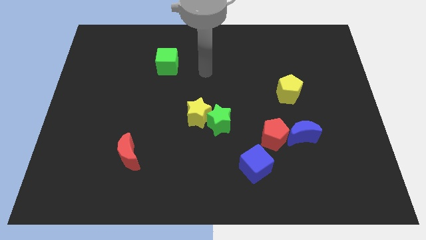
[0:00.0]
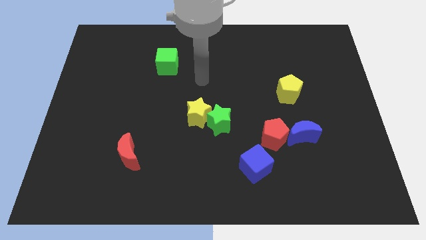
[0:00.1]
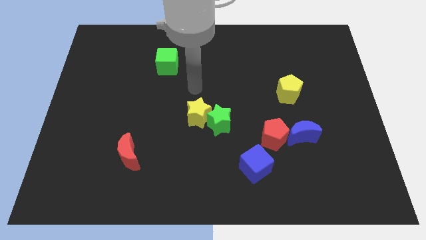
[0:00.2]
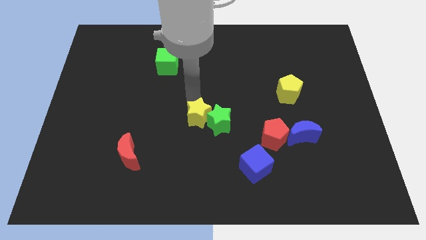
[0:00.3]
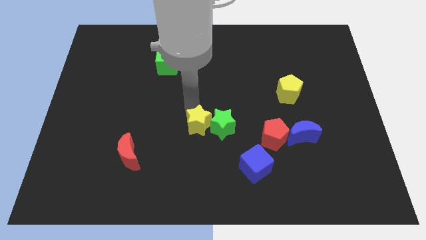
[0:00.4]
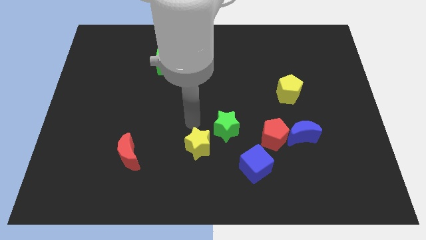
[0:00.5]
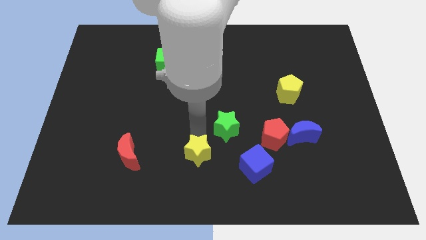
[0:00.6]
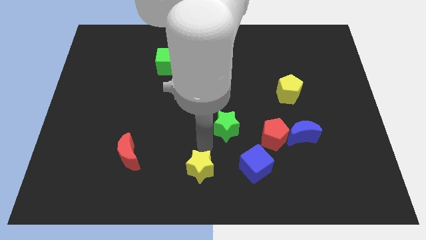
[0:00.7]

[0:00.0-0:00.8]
move the green star away from the yellow star

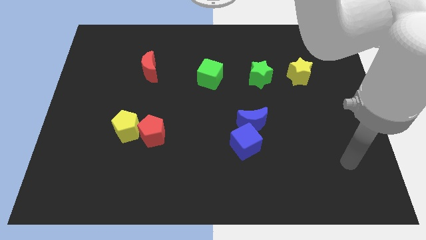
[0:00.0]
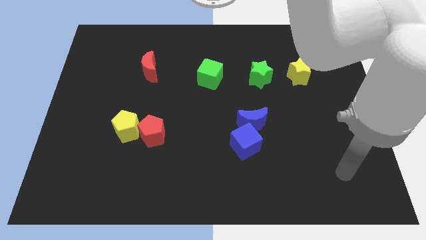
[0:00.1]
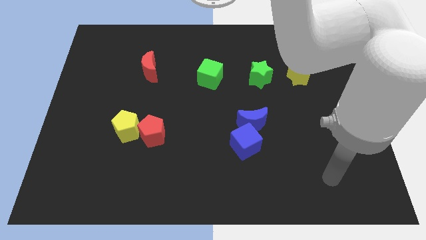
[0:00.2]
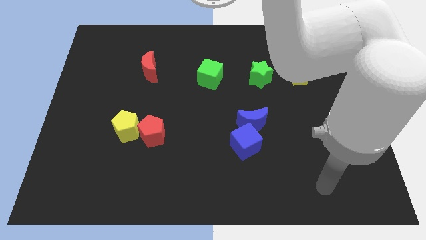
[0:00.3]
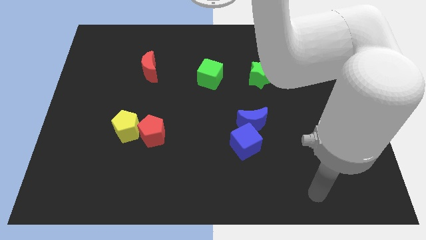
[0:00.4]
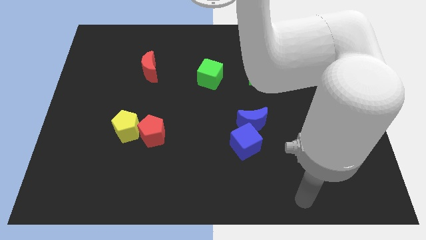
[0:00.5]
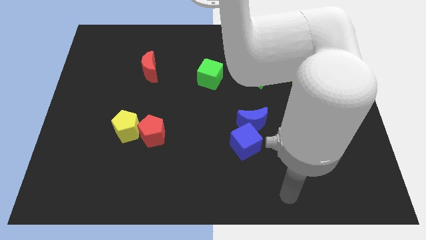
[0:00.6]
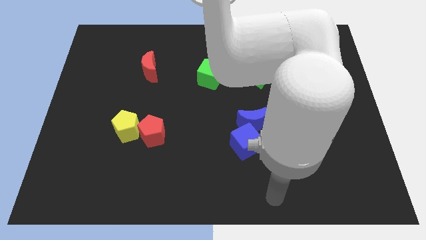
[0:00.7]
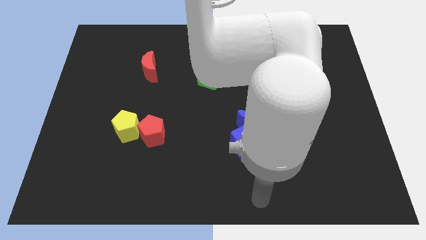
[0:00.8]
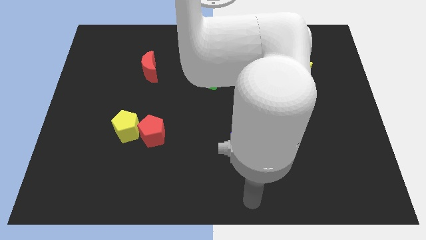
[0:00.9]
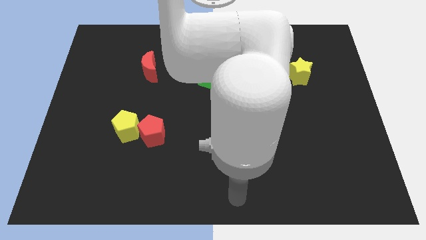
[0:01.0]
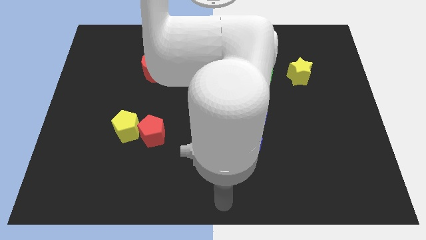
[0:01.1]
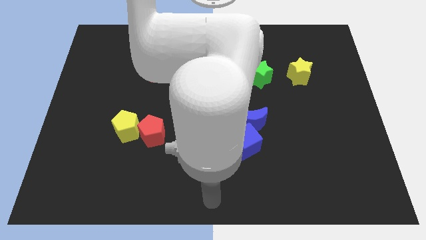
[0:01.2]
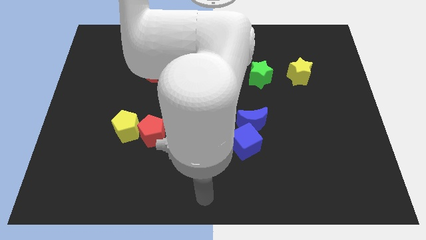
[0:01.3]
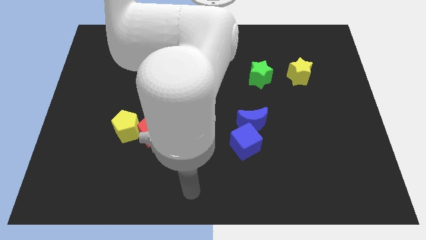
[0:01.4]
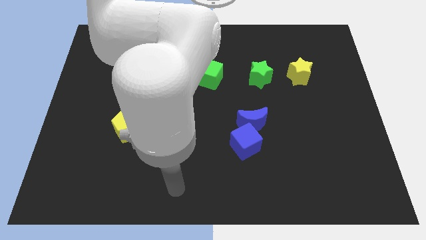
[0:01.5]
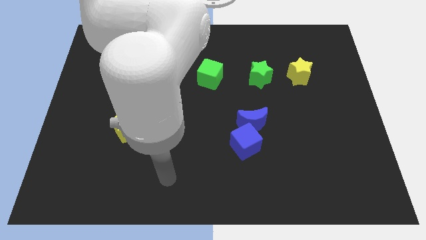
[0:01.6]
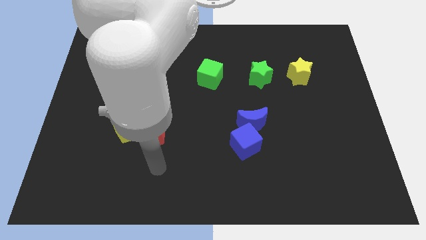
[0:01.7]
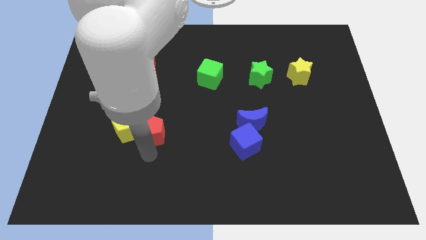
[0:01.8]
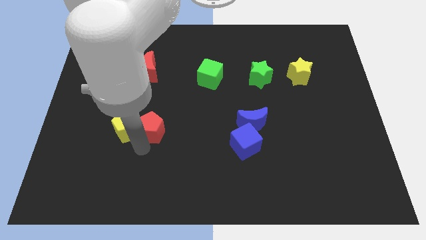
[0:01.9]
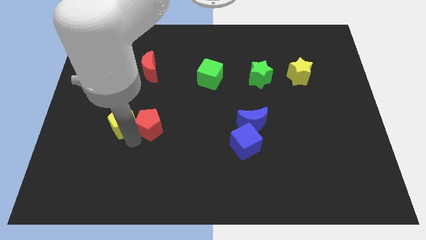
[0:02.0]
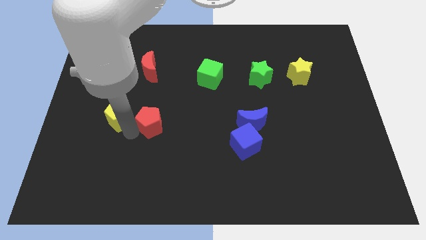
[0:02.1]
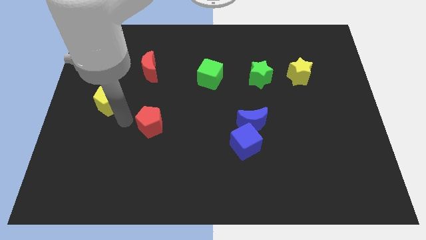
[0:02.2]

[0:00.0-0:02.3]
pull the red pentagon apart from the yellow pentagon

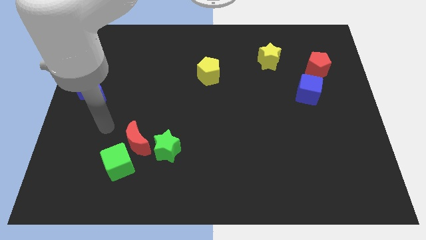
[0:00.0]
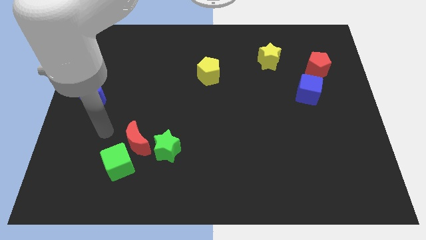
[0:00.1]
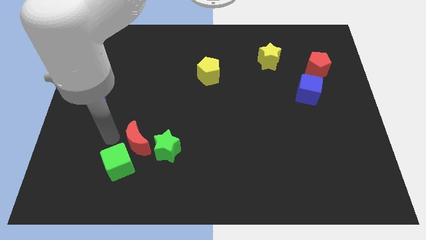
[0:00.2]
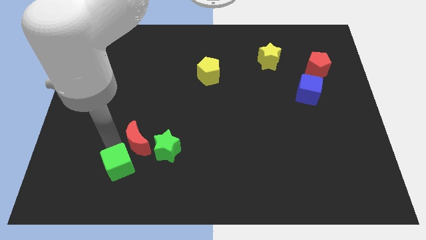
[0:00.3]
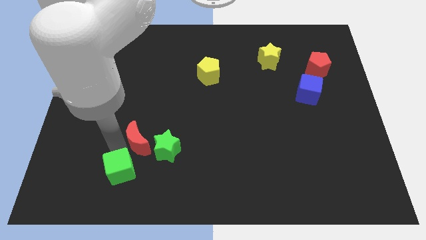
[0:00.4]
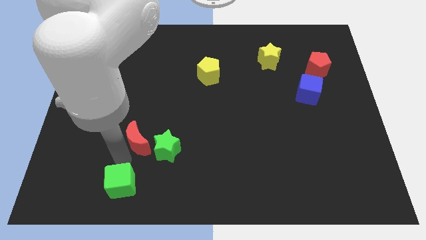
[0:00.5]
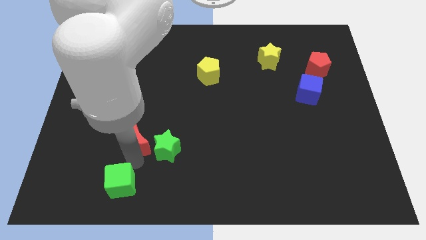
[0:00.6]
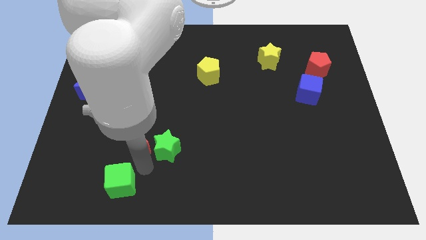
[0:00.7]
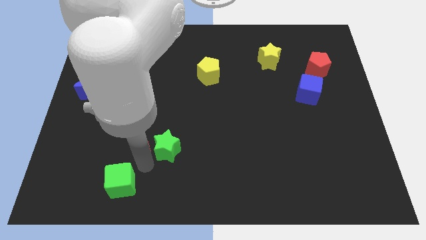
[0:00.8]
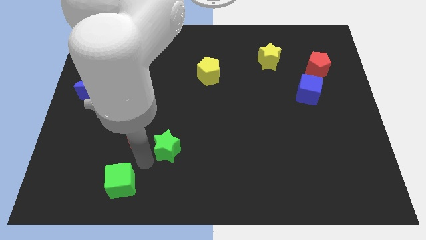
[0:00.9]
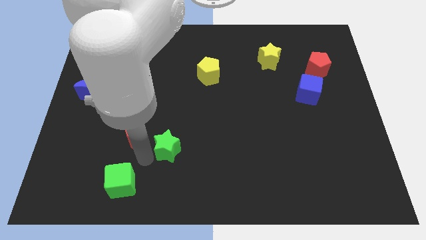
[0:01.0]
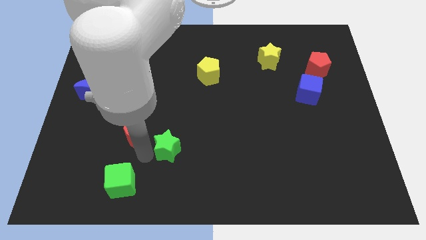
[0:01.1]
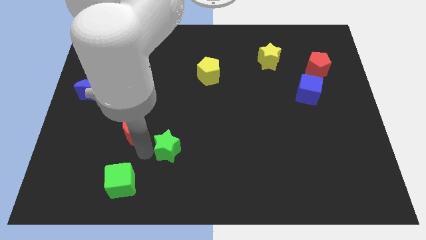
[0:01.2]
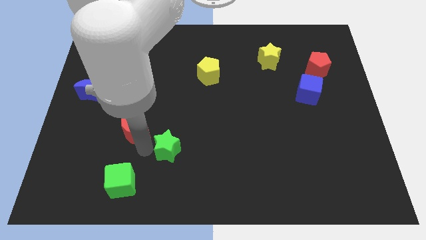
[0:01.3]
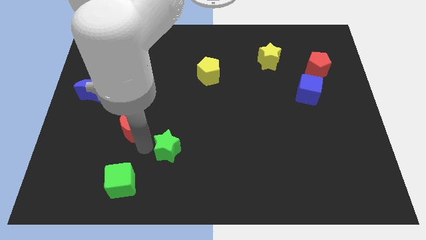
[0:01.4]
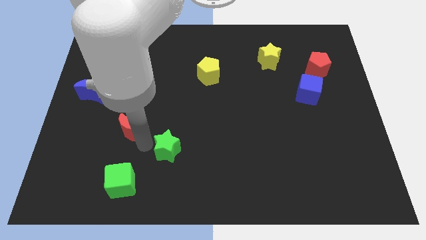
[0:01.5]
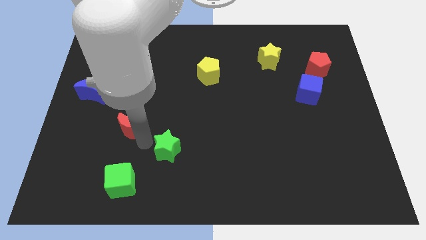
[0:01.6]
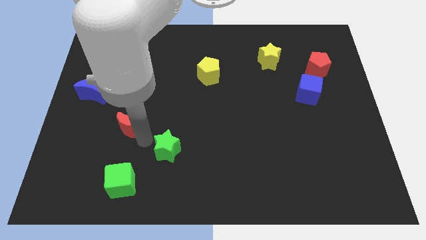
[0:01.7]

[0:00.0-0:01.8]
pull the red moon apart from the green cube and green star

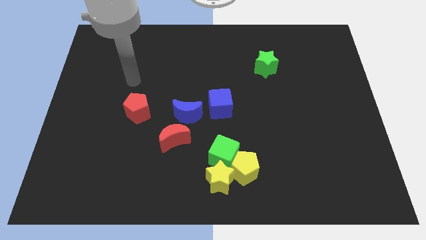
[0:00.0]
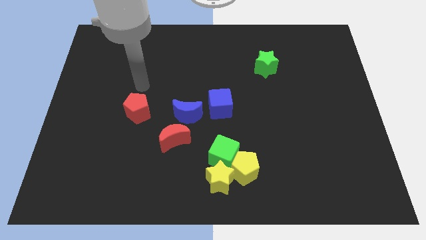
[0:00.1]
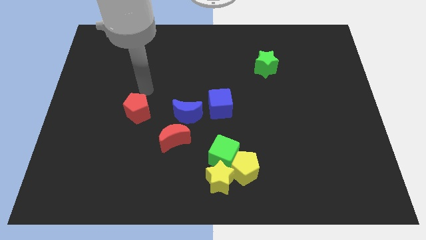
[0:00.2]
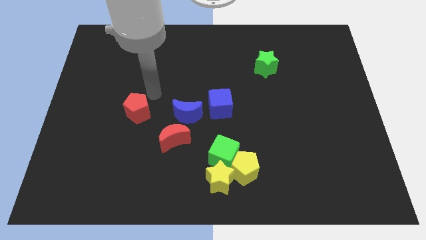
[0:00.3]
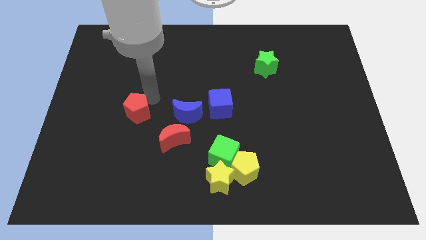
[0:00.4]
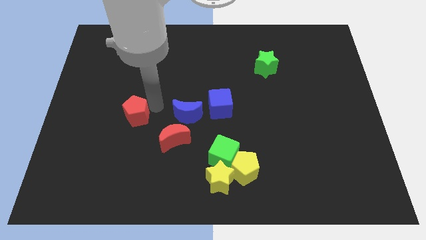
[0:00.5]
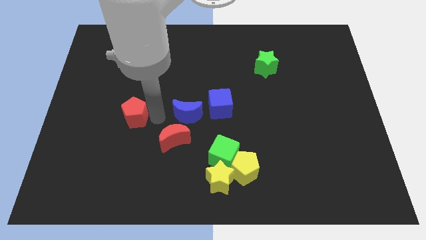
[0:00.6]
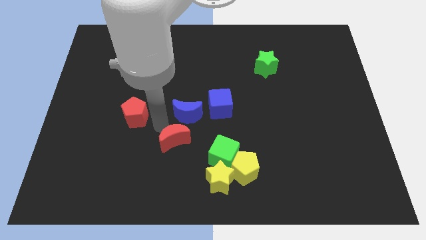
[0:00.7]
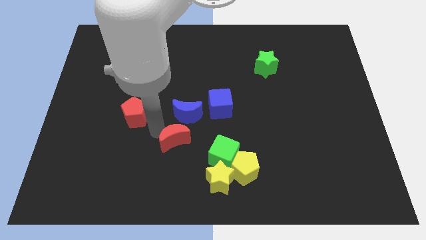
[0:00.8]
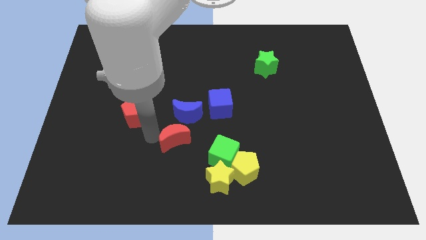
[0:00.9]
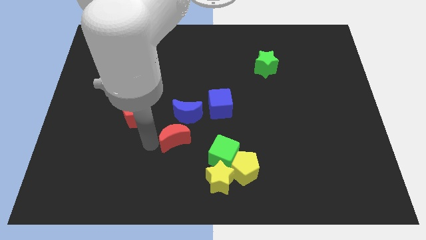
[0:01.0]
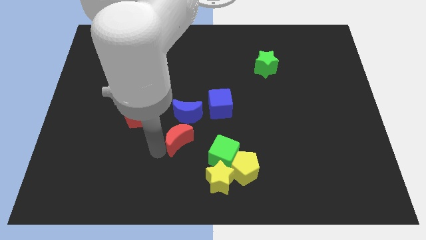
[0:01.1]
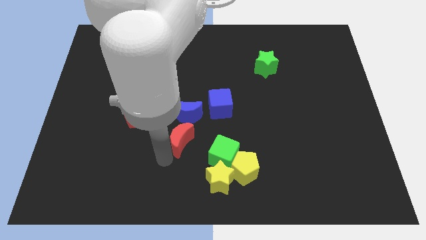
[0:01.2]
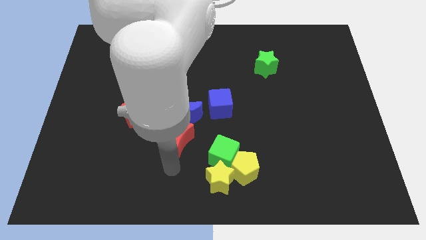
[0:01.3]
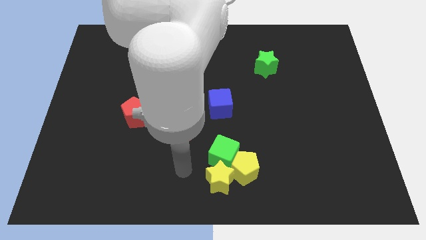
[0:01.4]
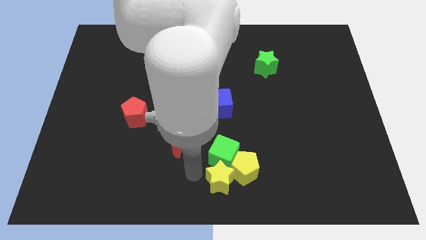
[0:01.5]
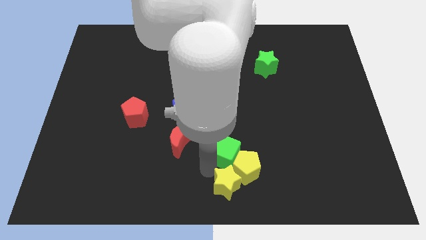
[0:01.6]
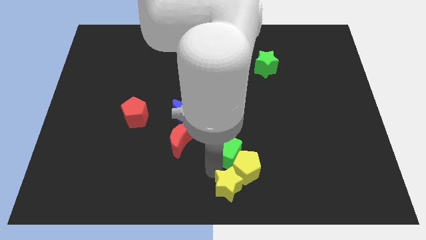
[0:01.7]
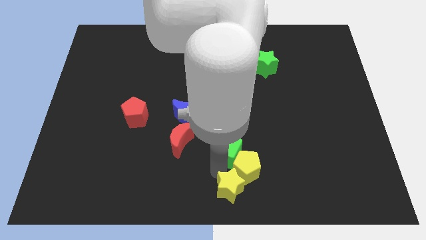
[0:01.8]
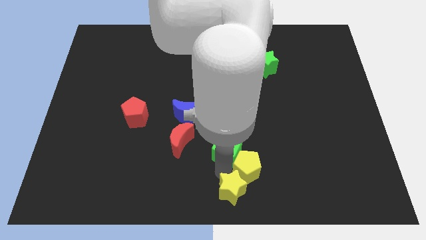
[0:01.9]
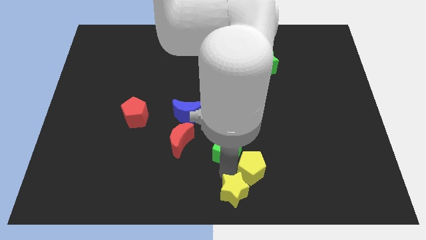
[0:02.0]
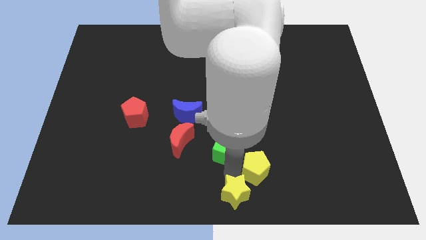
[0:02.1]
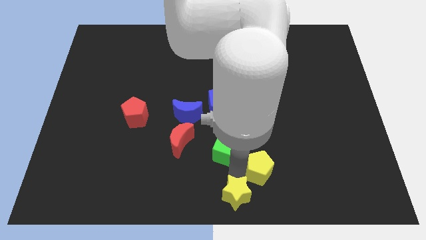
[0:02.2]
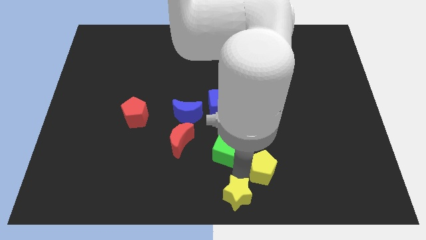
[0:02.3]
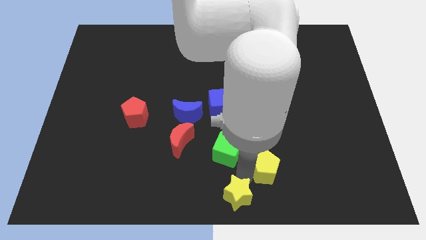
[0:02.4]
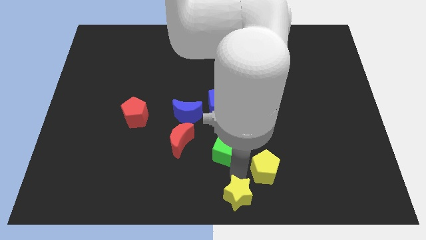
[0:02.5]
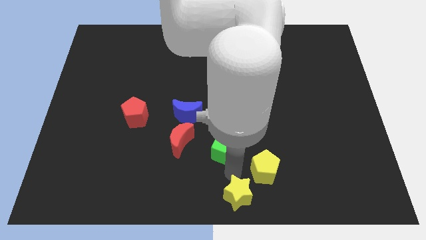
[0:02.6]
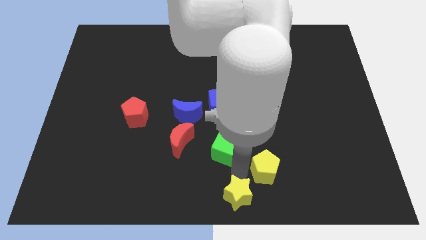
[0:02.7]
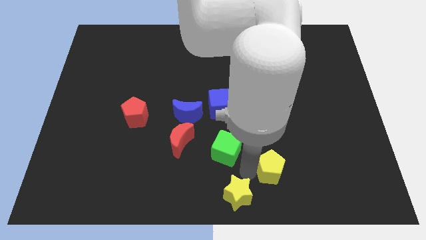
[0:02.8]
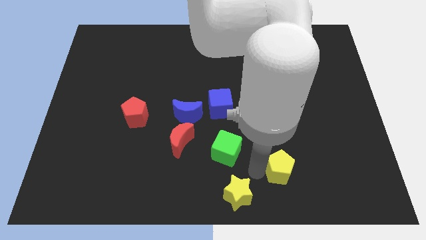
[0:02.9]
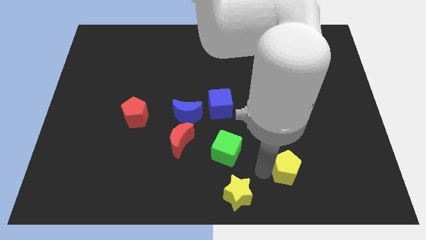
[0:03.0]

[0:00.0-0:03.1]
separate the yellow pentagon from the green cube and yellow star

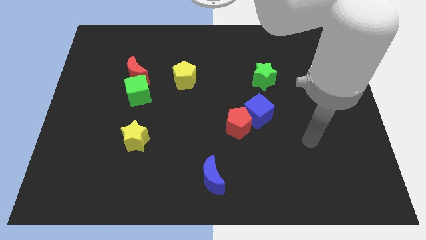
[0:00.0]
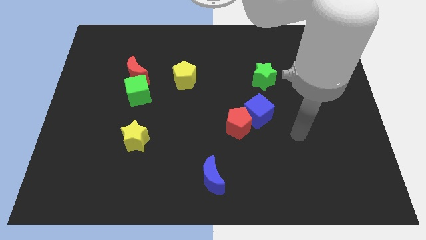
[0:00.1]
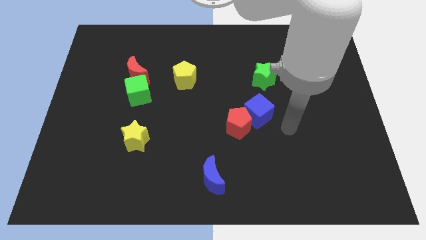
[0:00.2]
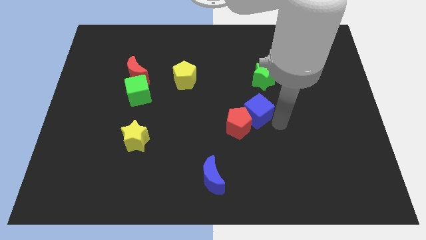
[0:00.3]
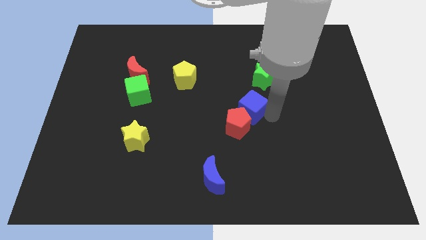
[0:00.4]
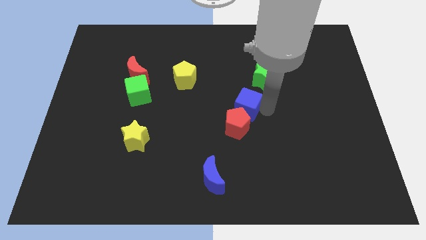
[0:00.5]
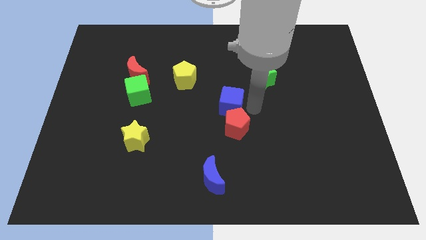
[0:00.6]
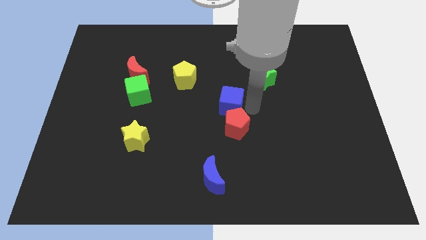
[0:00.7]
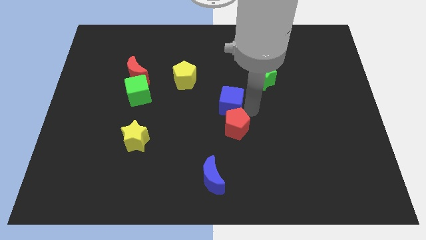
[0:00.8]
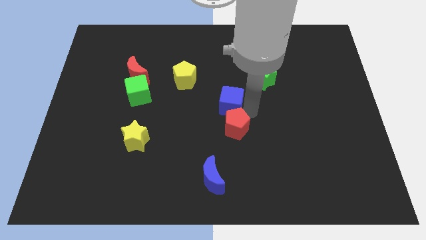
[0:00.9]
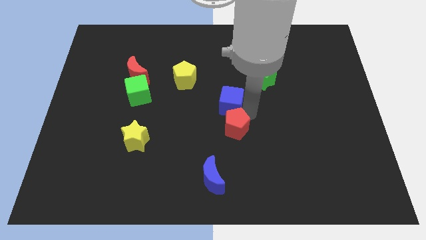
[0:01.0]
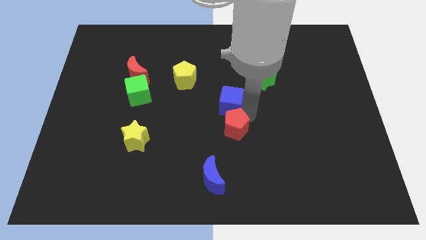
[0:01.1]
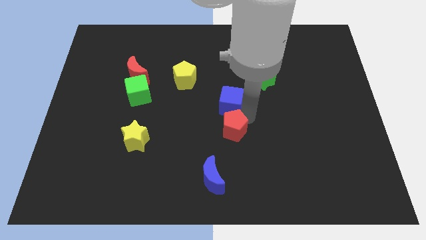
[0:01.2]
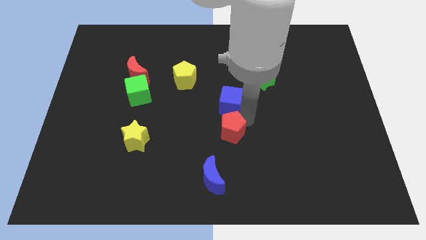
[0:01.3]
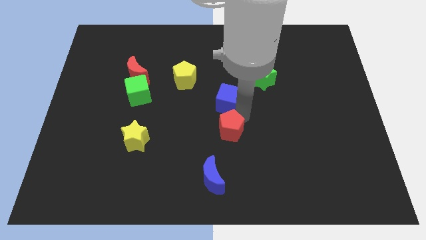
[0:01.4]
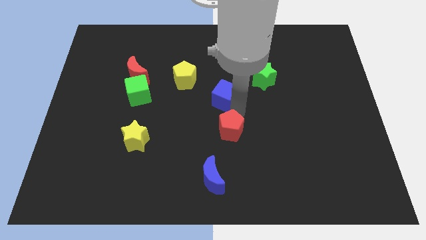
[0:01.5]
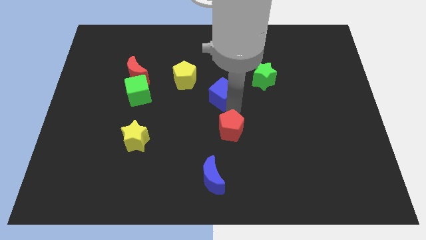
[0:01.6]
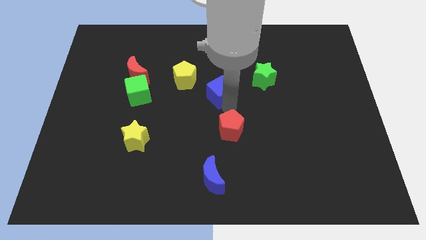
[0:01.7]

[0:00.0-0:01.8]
separate the red pentagon from the blue cube
